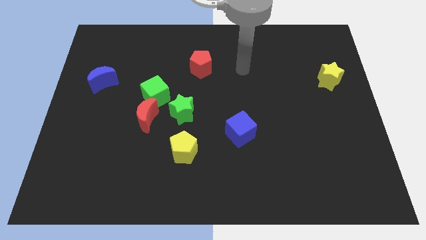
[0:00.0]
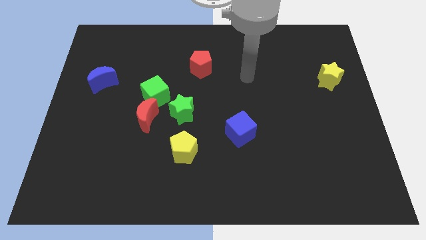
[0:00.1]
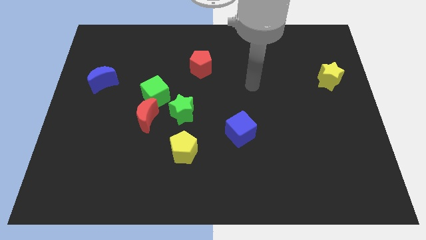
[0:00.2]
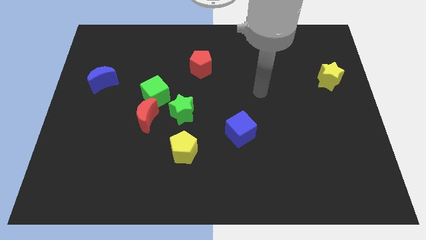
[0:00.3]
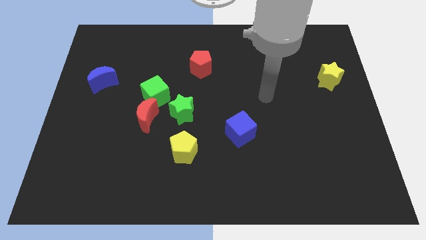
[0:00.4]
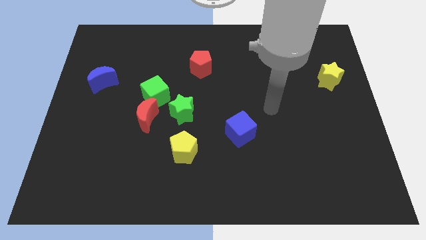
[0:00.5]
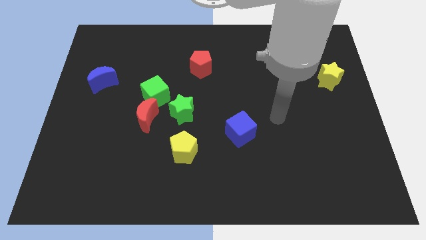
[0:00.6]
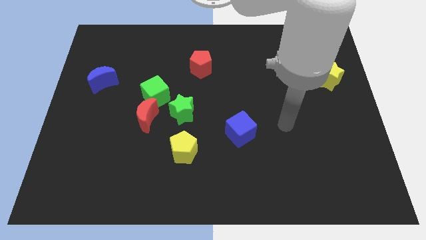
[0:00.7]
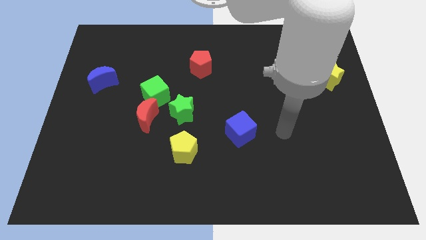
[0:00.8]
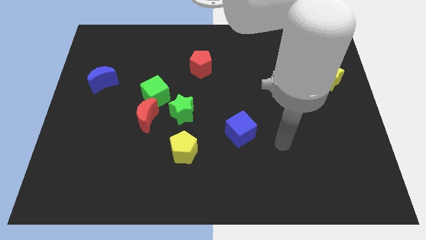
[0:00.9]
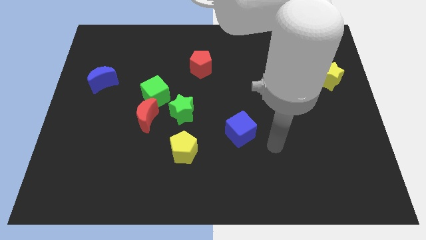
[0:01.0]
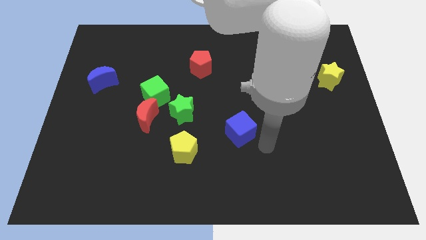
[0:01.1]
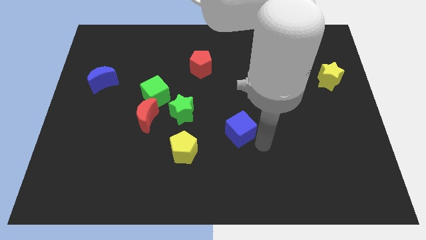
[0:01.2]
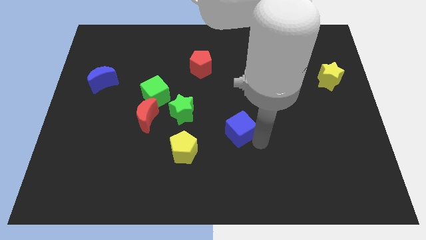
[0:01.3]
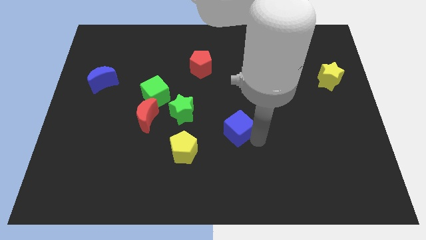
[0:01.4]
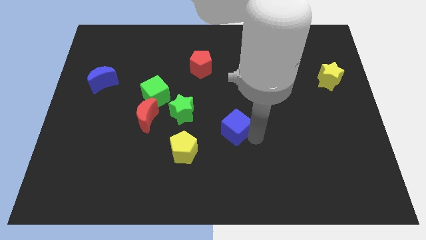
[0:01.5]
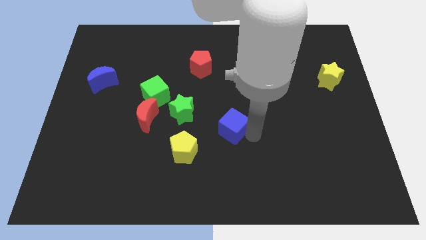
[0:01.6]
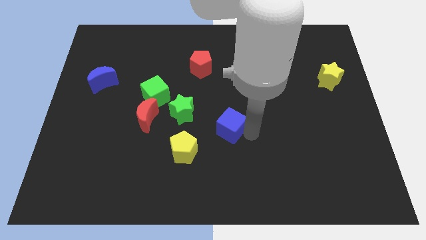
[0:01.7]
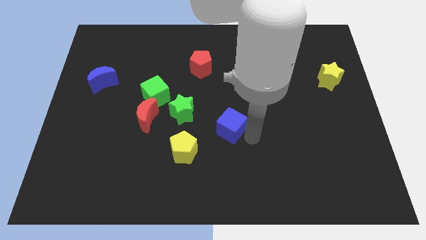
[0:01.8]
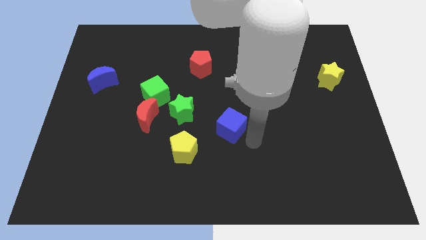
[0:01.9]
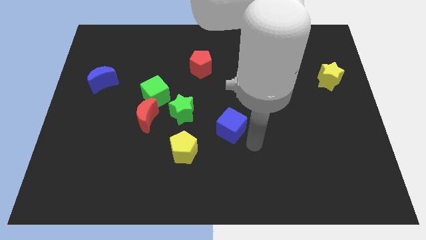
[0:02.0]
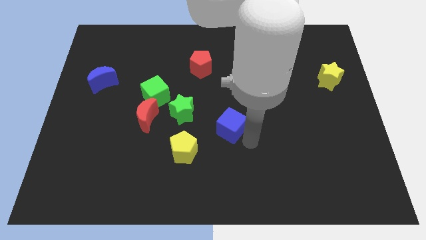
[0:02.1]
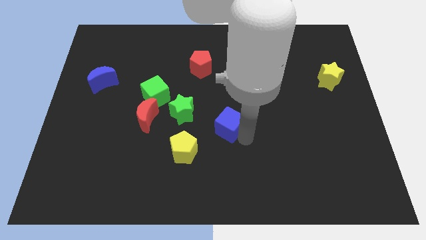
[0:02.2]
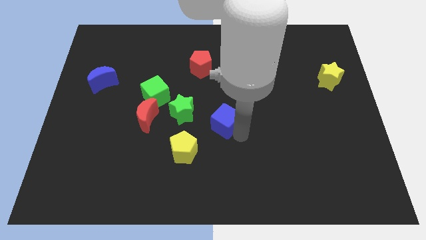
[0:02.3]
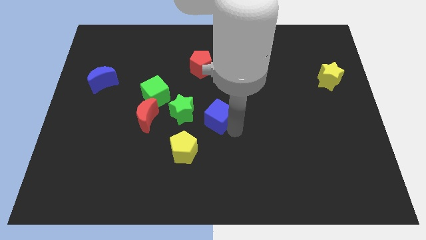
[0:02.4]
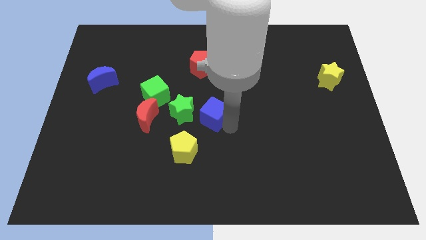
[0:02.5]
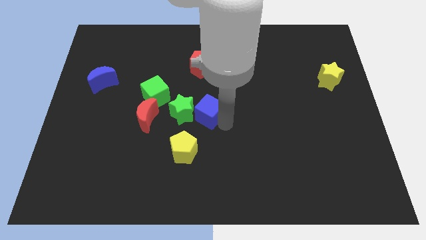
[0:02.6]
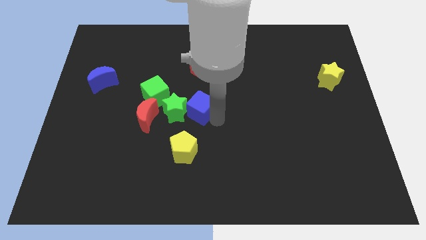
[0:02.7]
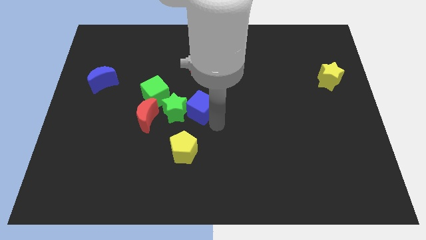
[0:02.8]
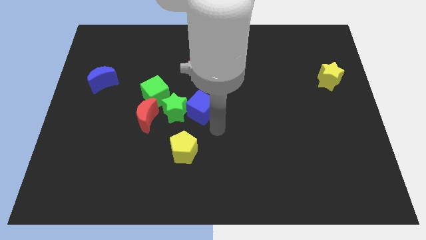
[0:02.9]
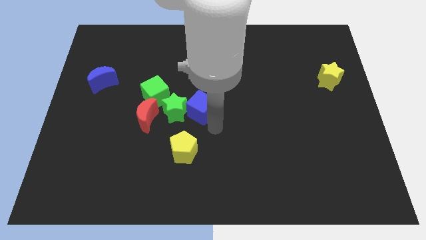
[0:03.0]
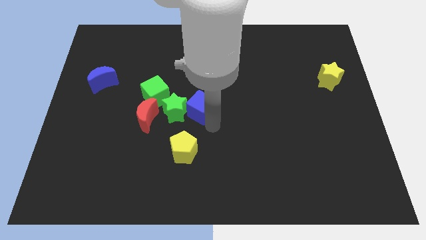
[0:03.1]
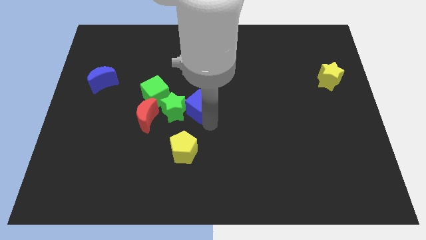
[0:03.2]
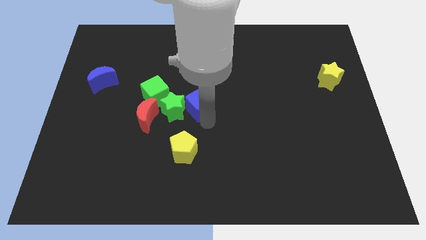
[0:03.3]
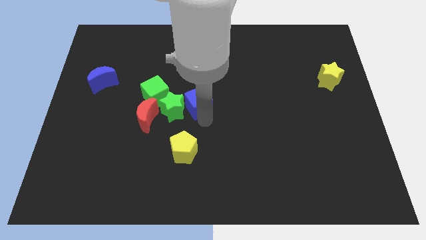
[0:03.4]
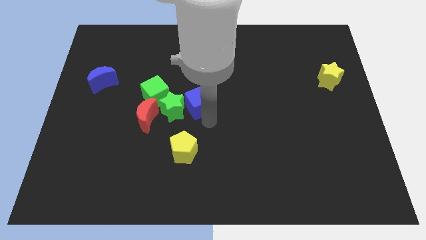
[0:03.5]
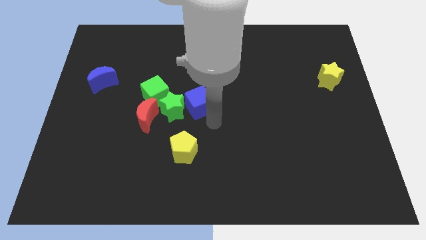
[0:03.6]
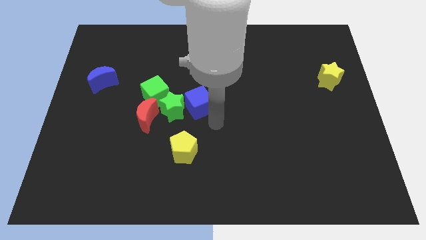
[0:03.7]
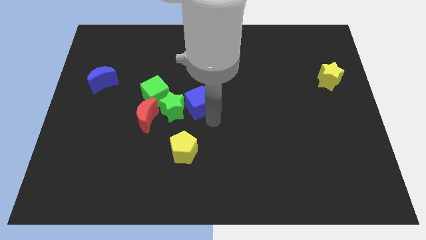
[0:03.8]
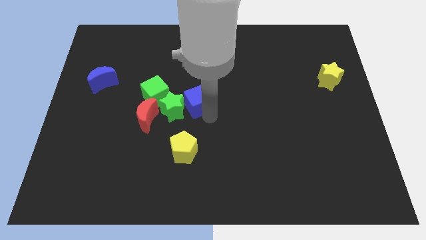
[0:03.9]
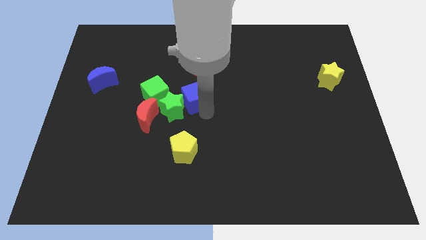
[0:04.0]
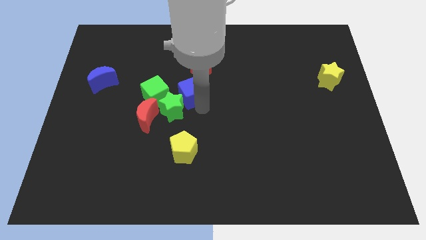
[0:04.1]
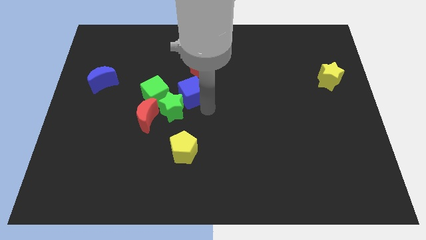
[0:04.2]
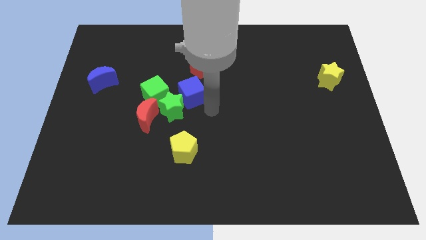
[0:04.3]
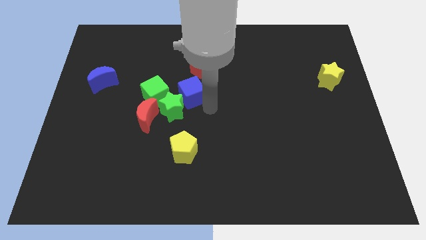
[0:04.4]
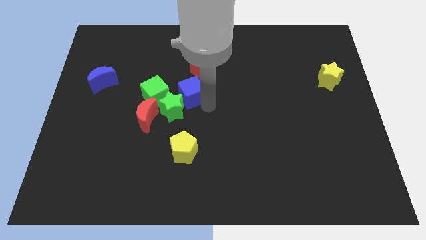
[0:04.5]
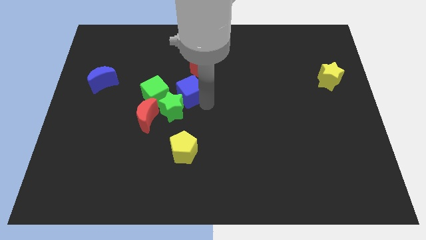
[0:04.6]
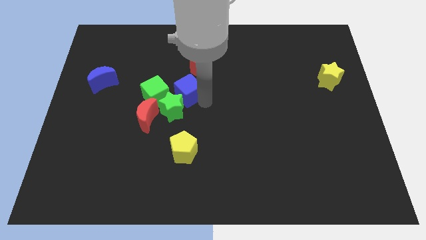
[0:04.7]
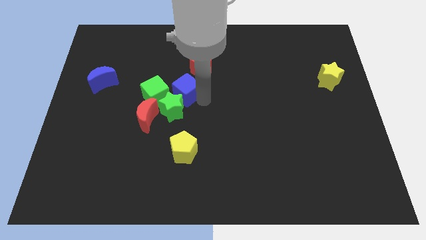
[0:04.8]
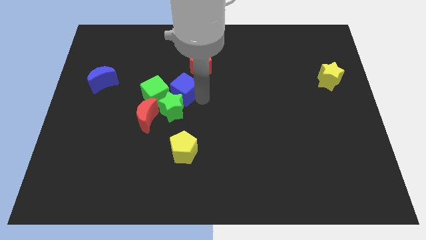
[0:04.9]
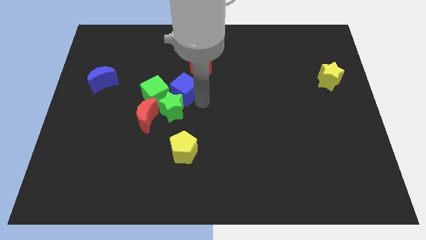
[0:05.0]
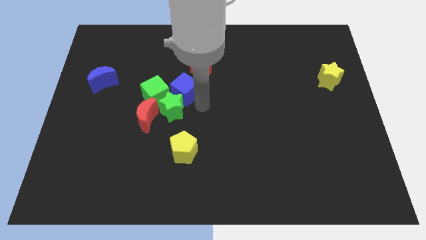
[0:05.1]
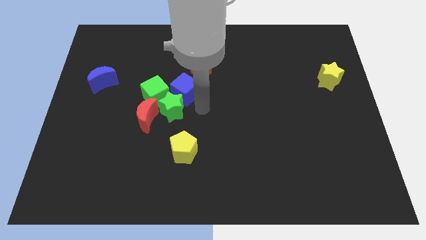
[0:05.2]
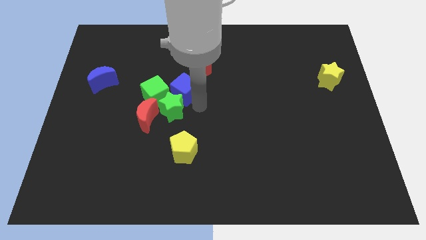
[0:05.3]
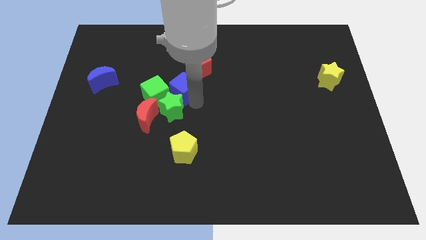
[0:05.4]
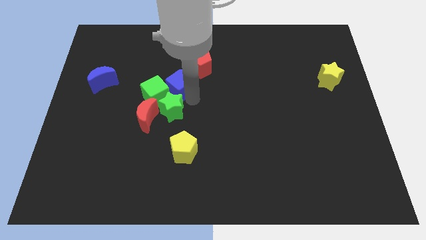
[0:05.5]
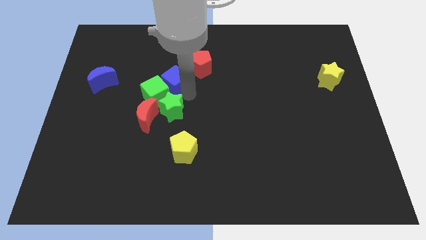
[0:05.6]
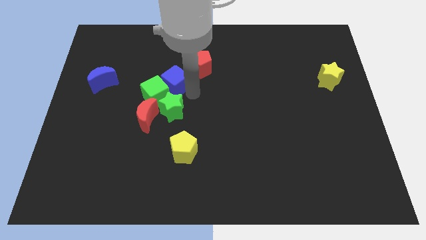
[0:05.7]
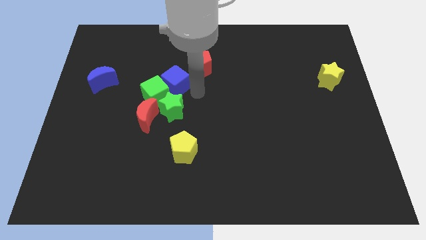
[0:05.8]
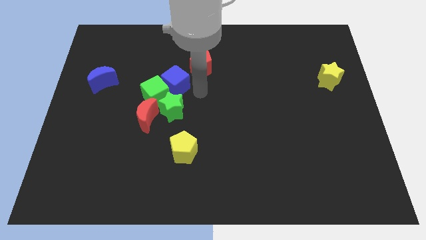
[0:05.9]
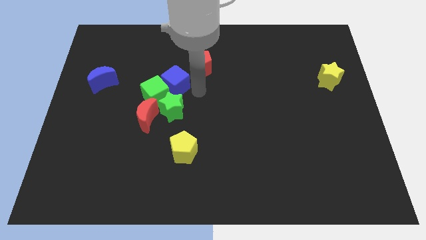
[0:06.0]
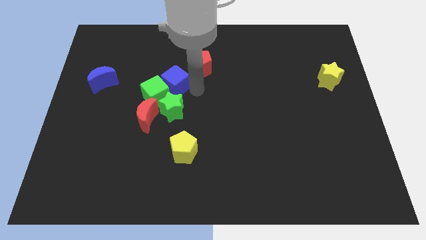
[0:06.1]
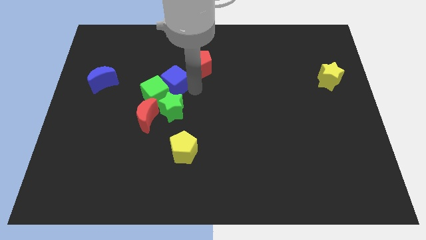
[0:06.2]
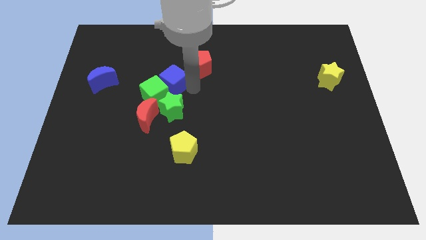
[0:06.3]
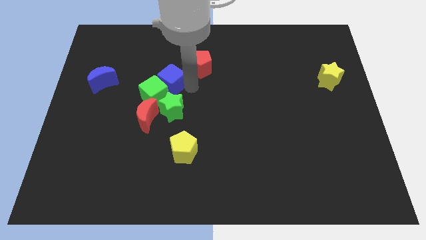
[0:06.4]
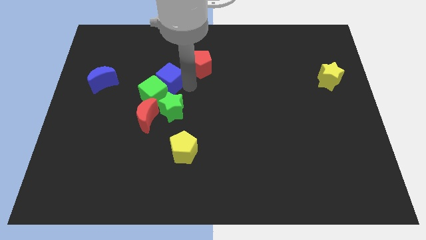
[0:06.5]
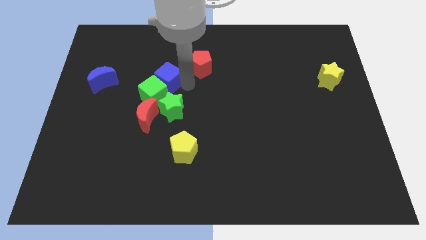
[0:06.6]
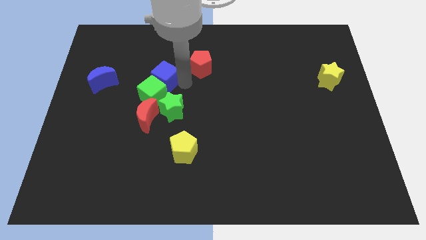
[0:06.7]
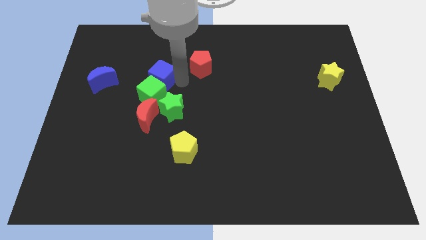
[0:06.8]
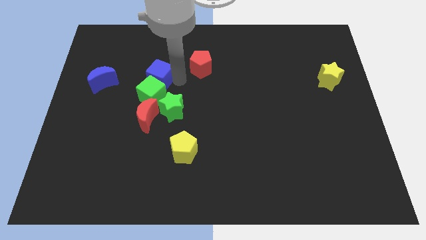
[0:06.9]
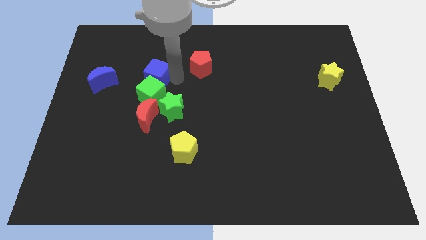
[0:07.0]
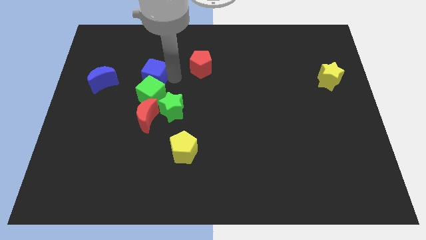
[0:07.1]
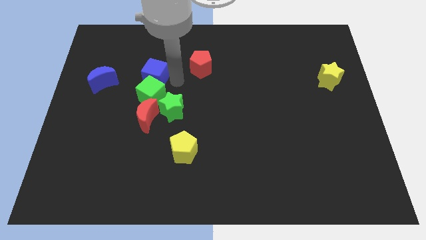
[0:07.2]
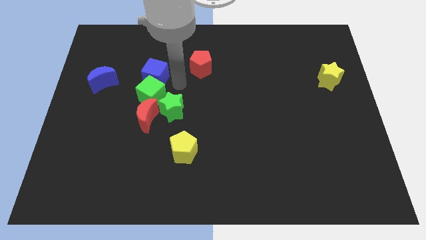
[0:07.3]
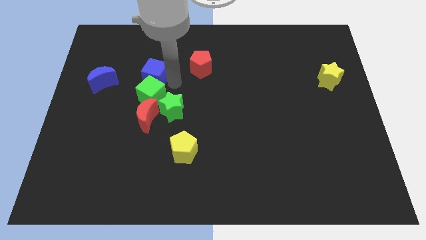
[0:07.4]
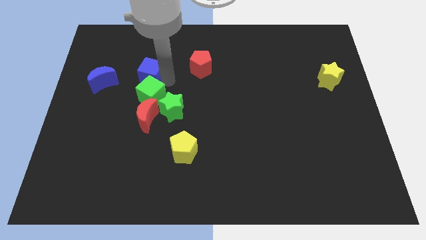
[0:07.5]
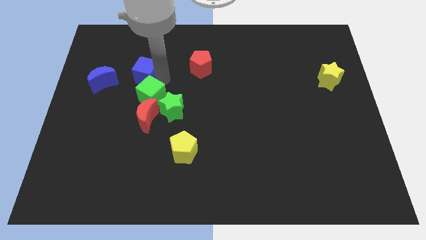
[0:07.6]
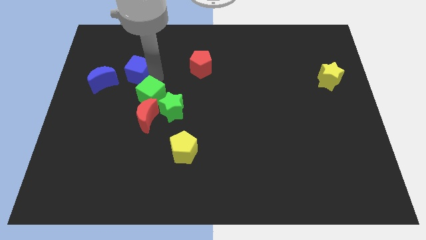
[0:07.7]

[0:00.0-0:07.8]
move the blue cube to the top right side of the blue moon
